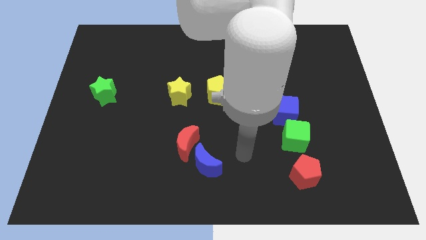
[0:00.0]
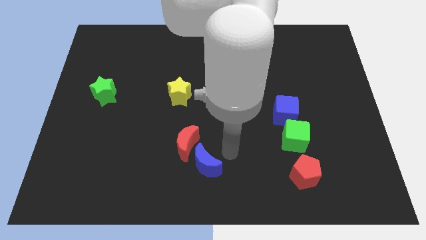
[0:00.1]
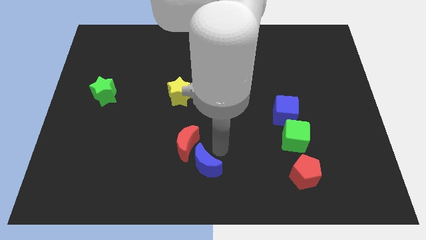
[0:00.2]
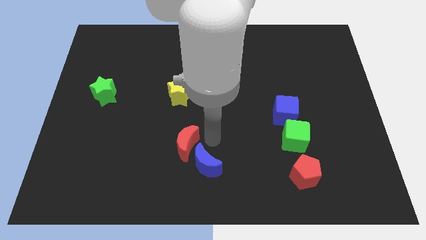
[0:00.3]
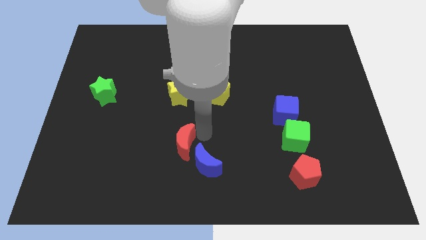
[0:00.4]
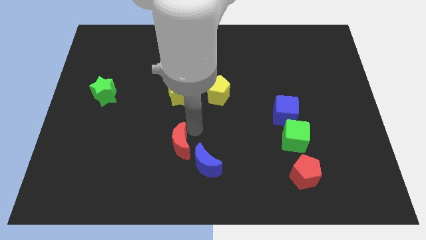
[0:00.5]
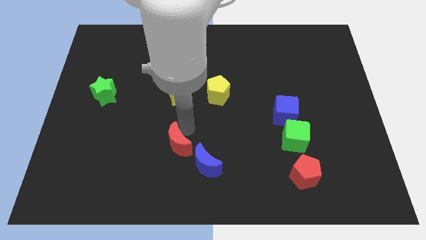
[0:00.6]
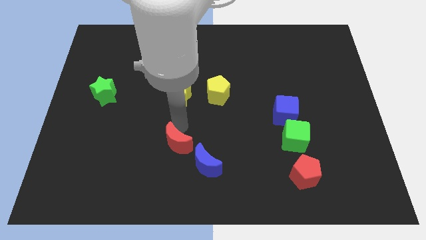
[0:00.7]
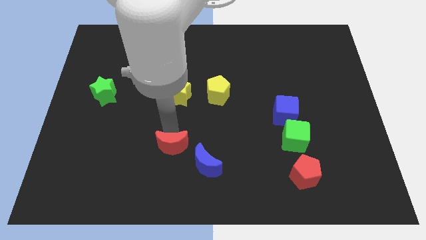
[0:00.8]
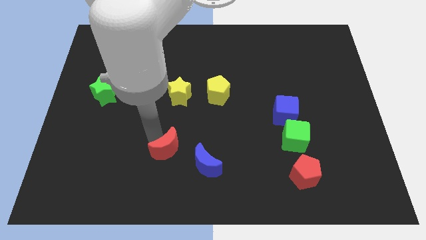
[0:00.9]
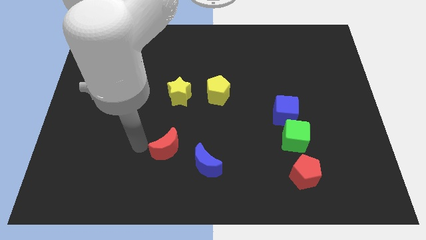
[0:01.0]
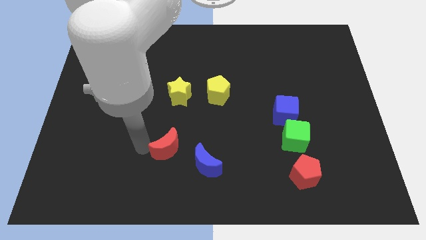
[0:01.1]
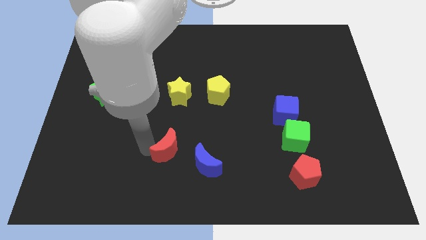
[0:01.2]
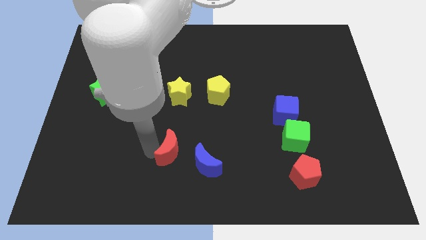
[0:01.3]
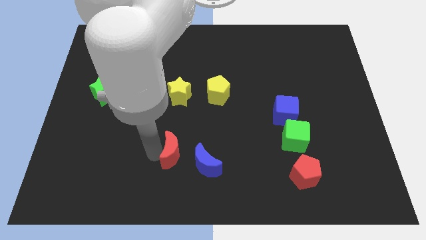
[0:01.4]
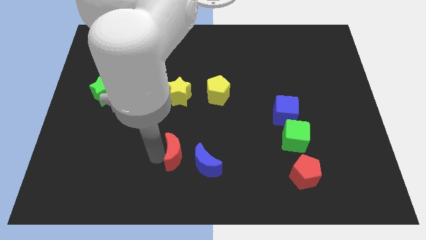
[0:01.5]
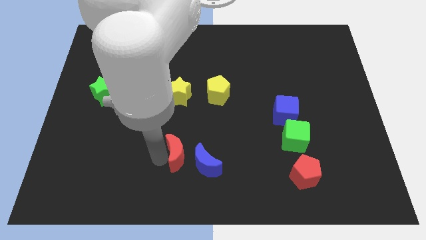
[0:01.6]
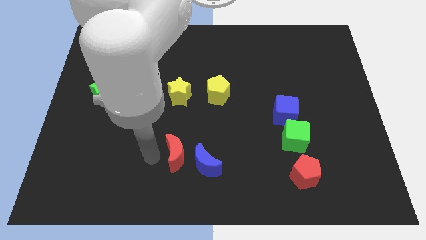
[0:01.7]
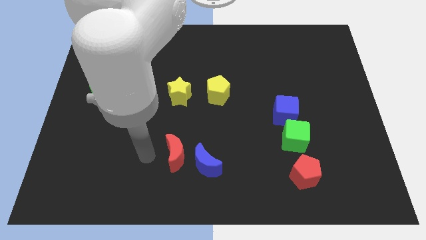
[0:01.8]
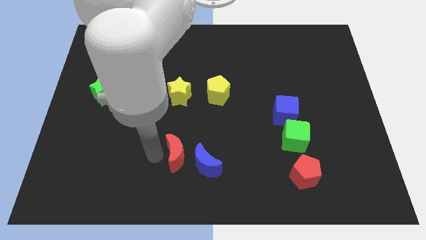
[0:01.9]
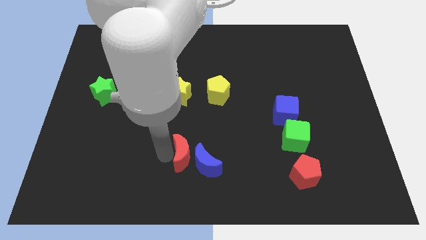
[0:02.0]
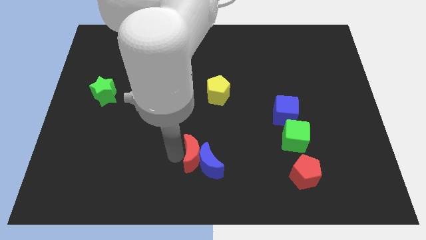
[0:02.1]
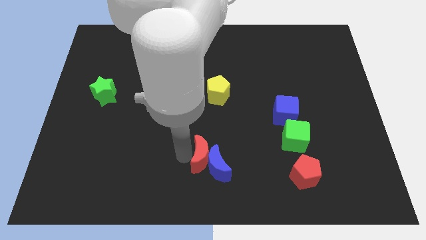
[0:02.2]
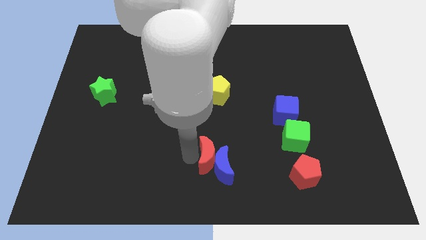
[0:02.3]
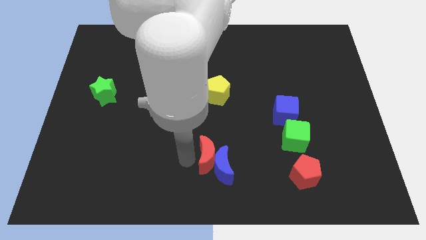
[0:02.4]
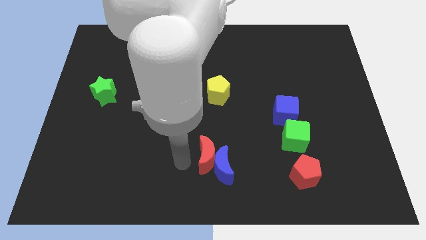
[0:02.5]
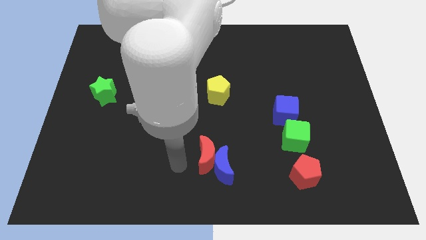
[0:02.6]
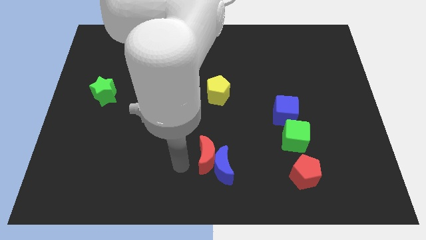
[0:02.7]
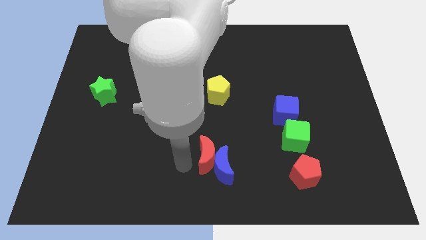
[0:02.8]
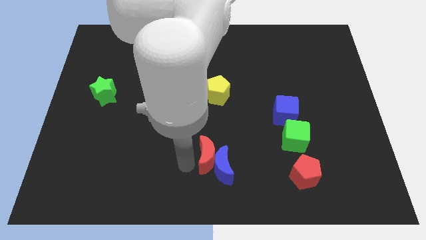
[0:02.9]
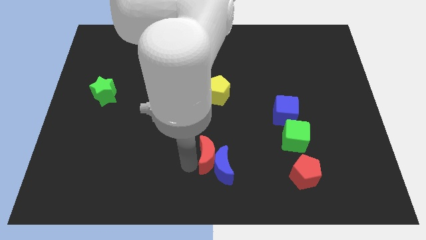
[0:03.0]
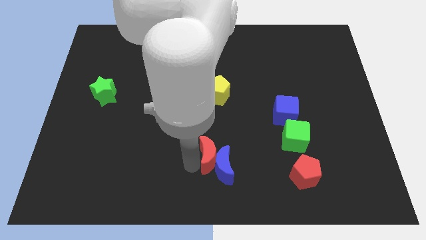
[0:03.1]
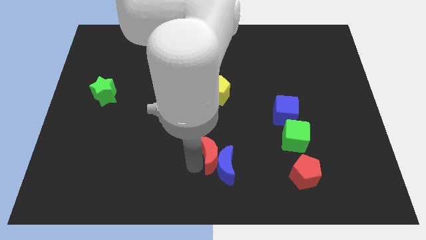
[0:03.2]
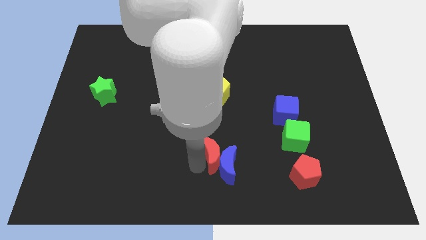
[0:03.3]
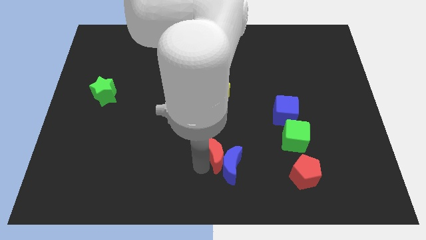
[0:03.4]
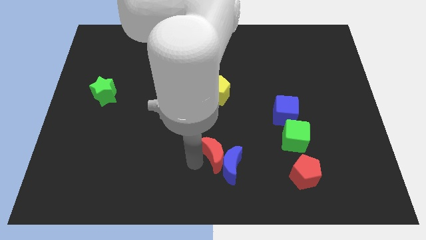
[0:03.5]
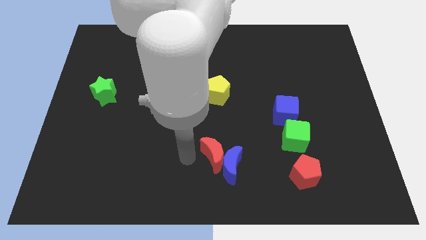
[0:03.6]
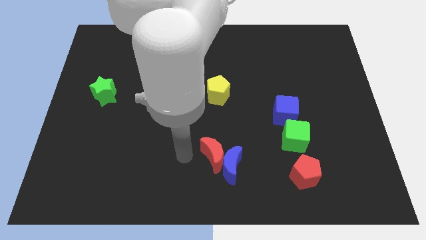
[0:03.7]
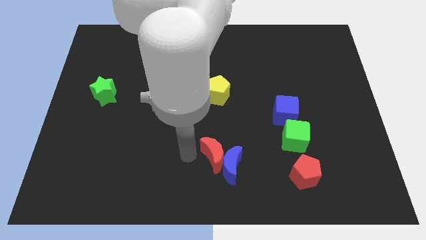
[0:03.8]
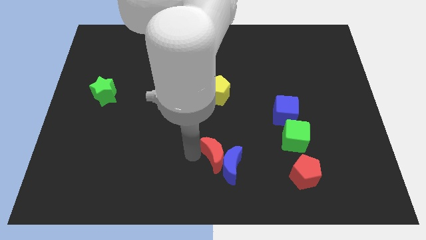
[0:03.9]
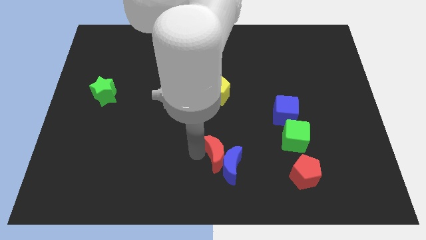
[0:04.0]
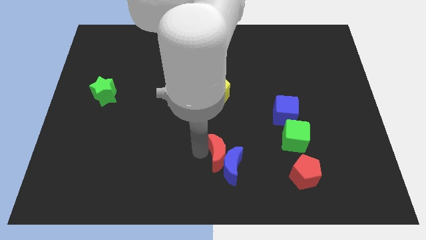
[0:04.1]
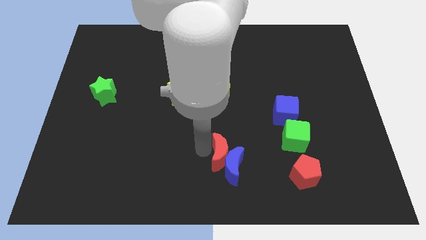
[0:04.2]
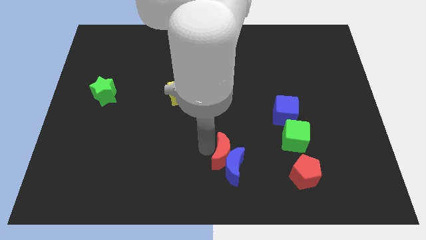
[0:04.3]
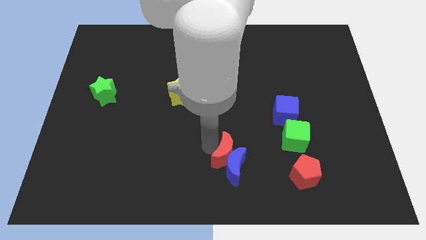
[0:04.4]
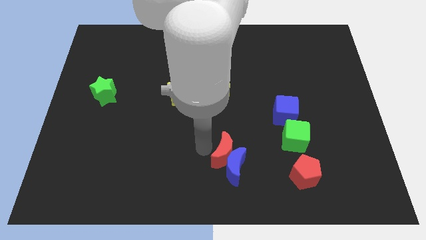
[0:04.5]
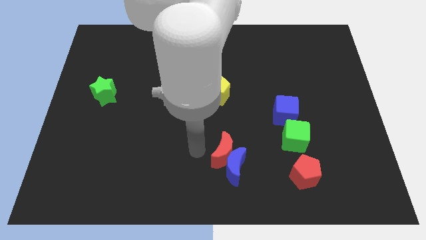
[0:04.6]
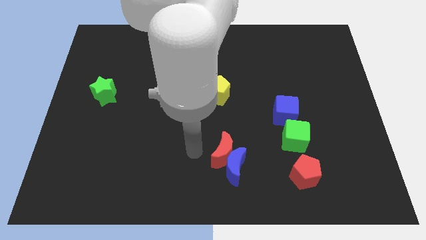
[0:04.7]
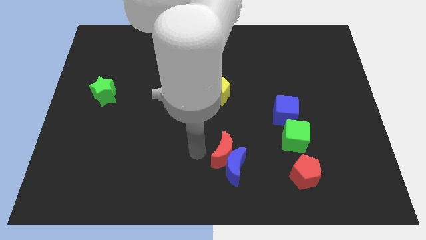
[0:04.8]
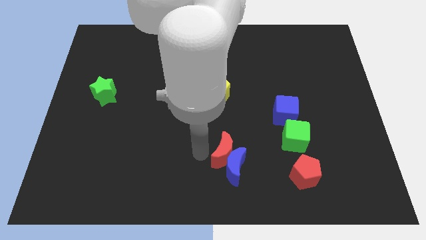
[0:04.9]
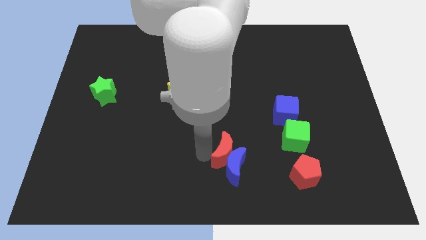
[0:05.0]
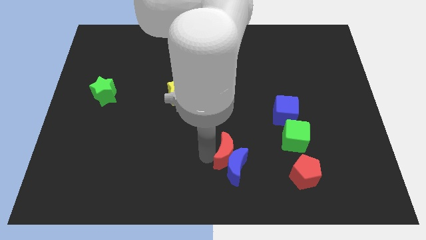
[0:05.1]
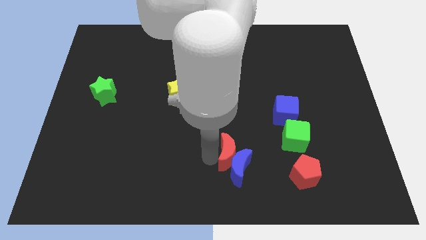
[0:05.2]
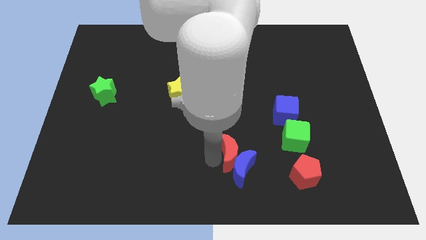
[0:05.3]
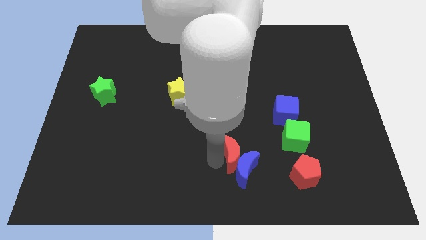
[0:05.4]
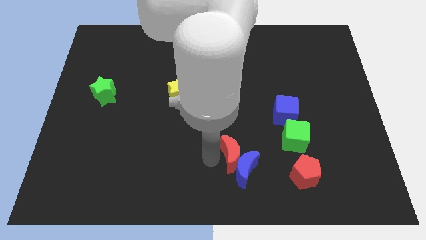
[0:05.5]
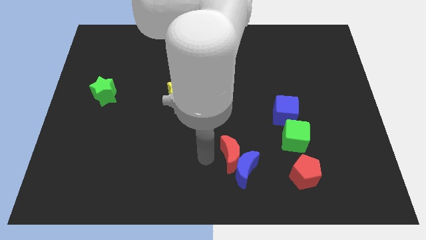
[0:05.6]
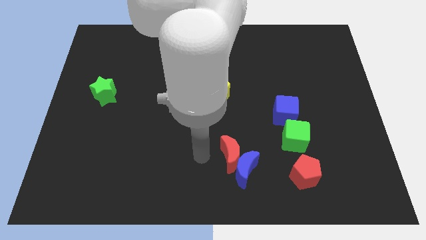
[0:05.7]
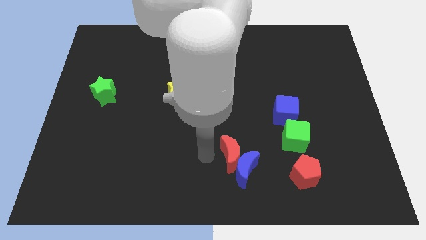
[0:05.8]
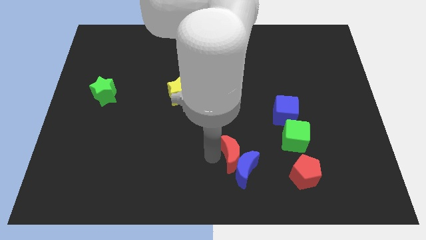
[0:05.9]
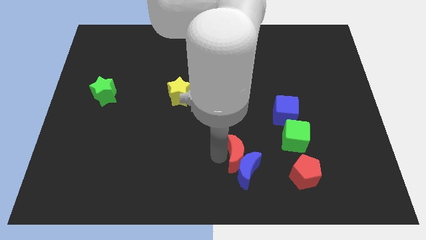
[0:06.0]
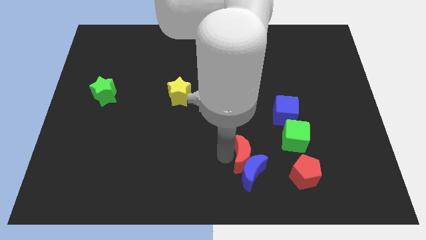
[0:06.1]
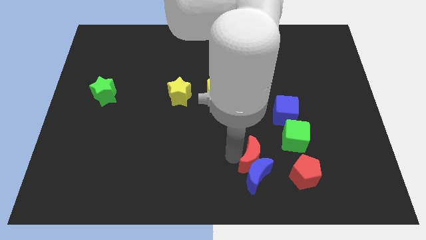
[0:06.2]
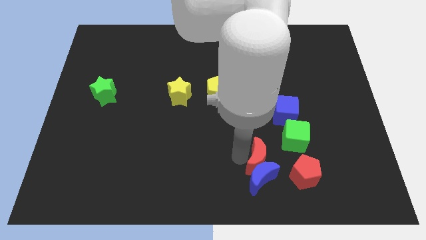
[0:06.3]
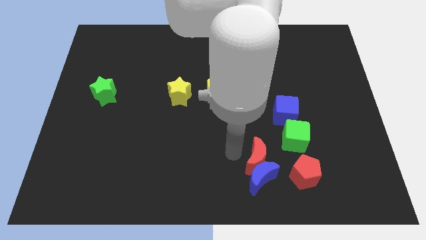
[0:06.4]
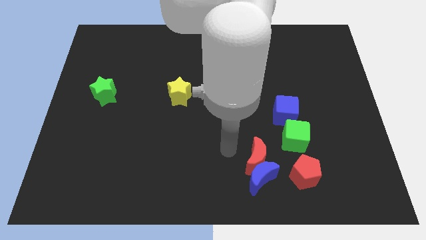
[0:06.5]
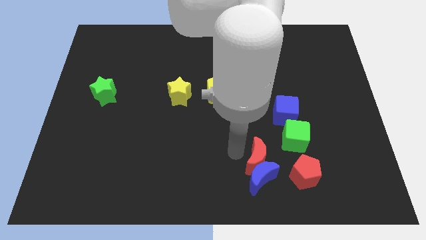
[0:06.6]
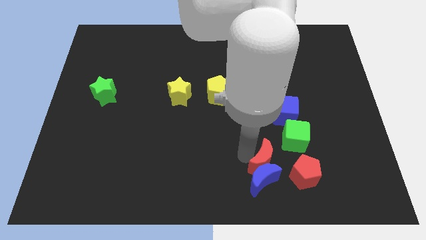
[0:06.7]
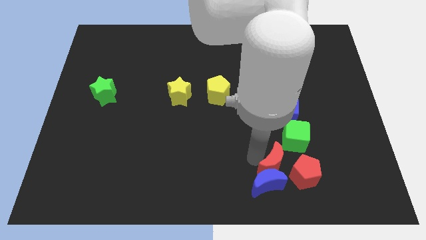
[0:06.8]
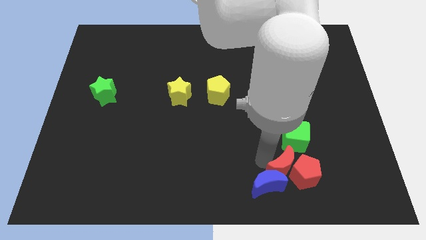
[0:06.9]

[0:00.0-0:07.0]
put the red moon close to the red pentagon

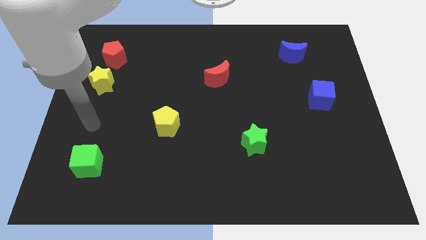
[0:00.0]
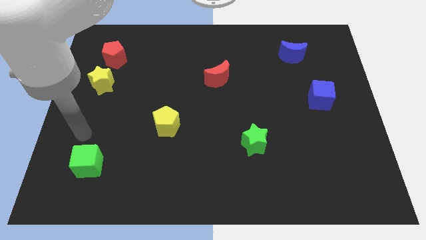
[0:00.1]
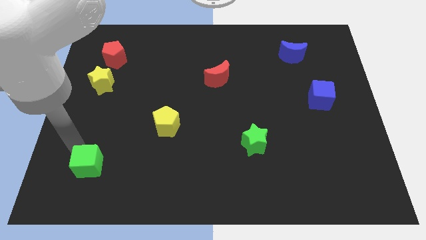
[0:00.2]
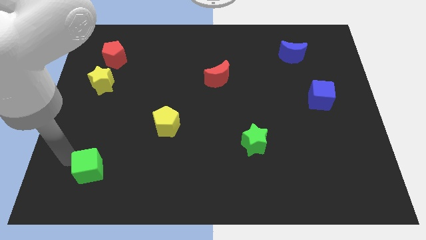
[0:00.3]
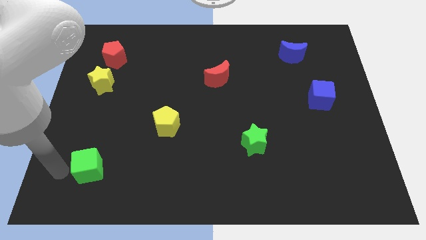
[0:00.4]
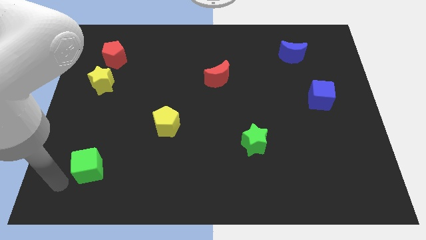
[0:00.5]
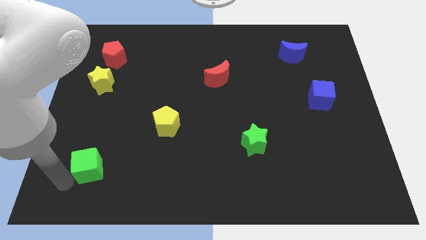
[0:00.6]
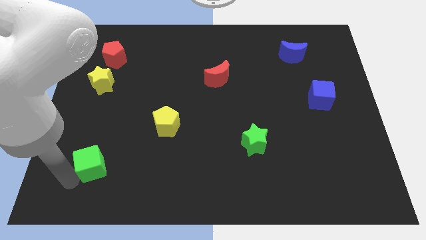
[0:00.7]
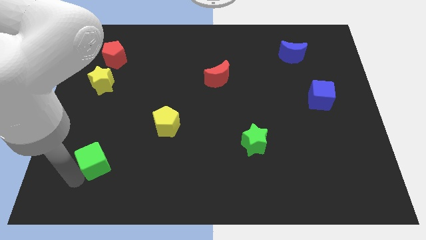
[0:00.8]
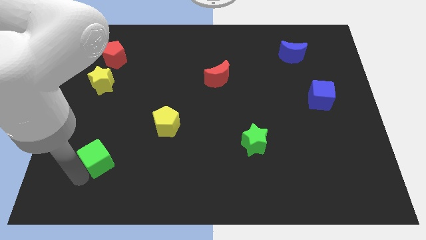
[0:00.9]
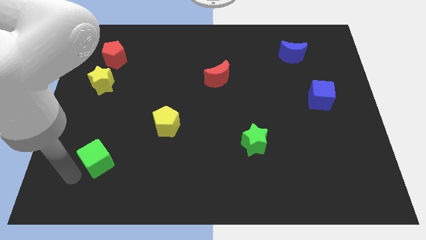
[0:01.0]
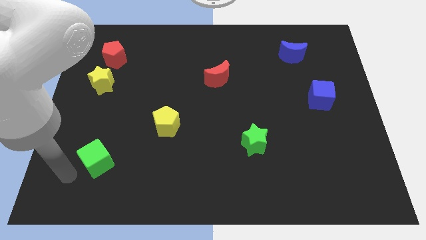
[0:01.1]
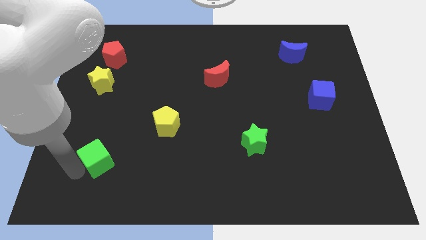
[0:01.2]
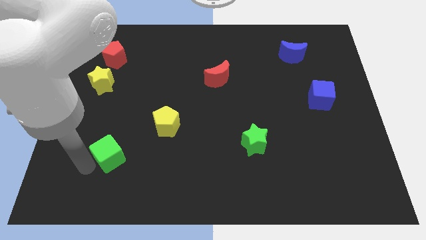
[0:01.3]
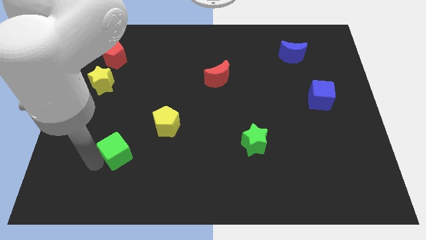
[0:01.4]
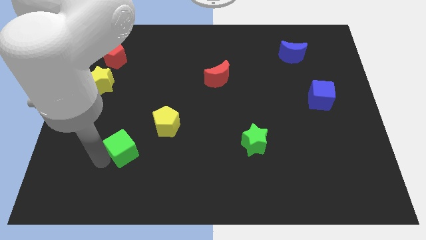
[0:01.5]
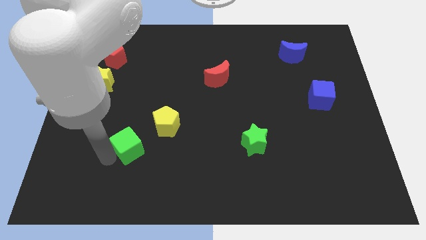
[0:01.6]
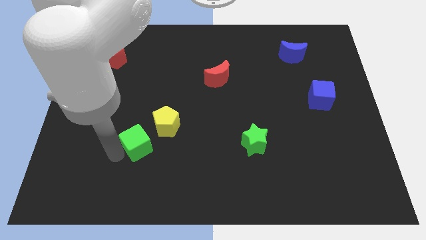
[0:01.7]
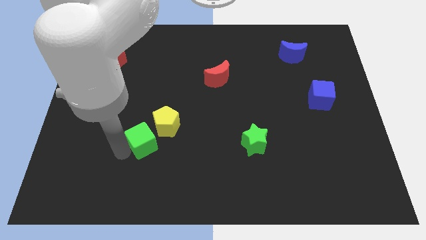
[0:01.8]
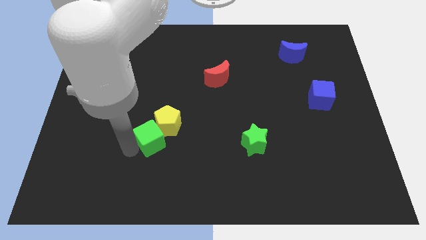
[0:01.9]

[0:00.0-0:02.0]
push the green cube close to the yellow pentagon
